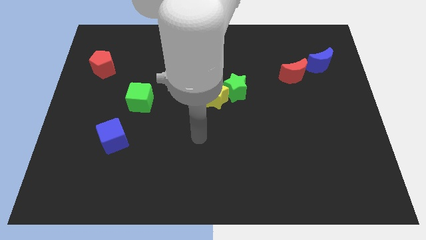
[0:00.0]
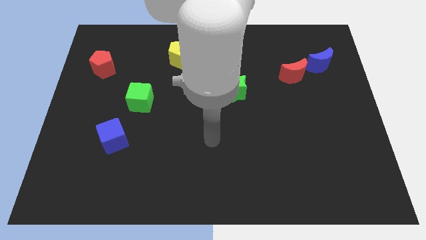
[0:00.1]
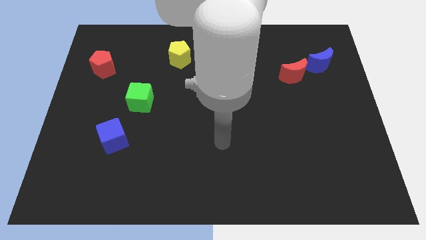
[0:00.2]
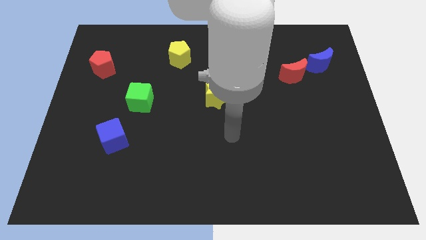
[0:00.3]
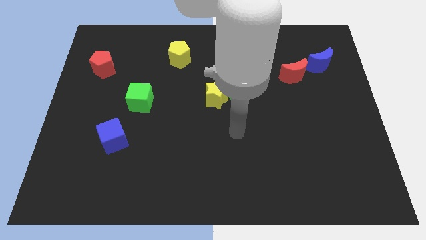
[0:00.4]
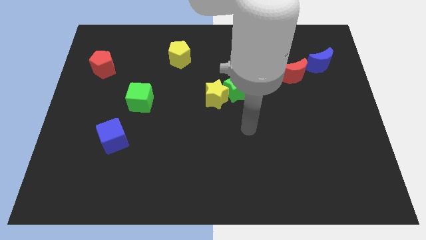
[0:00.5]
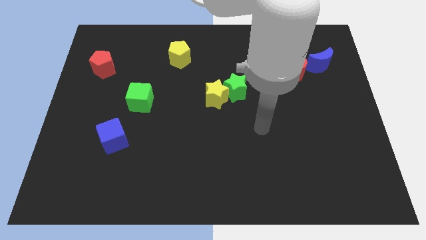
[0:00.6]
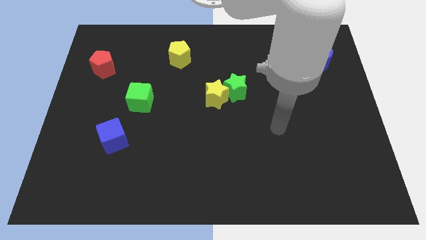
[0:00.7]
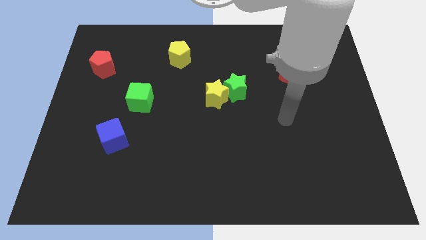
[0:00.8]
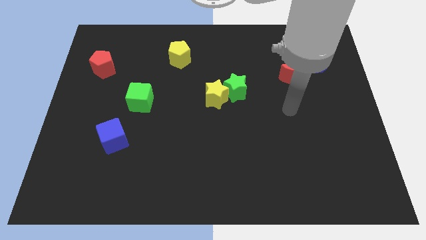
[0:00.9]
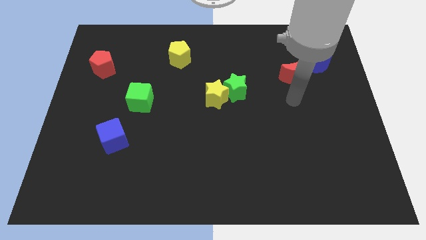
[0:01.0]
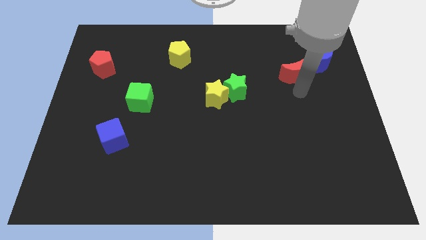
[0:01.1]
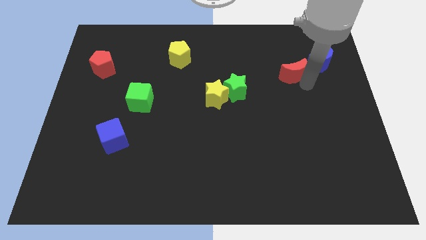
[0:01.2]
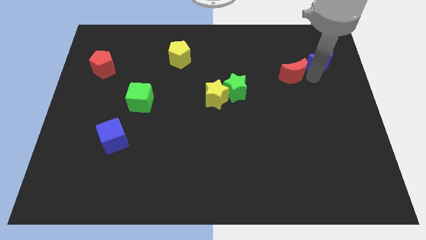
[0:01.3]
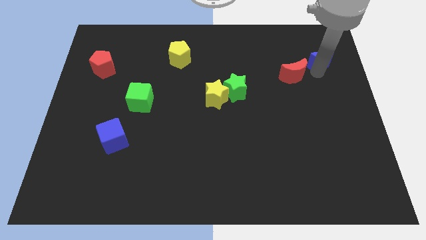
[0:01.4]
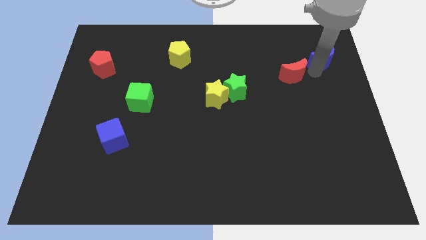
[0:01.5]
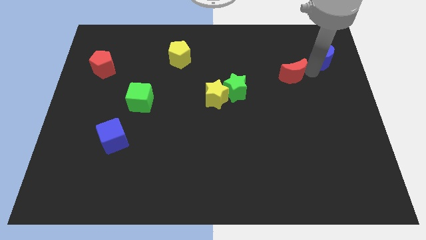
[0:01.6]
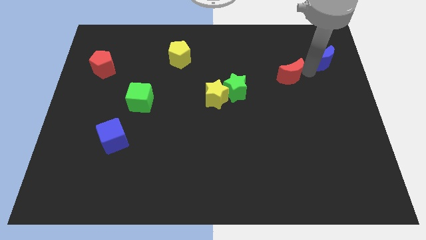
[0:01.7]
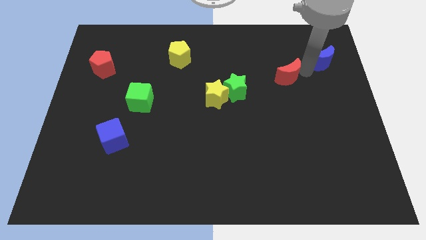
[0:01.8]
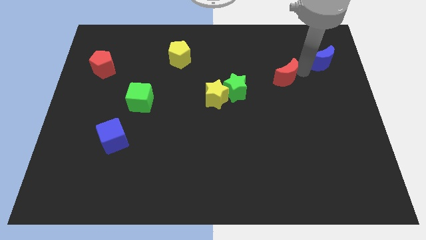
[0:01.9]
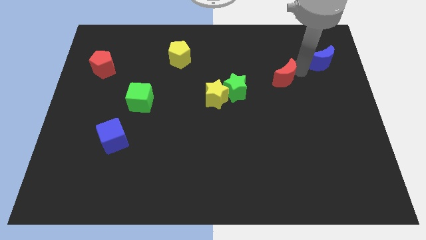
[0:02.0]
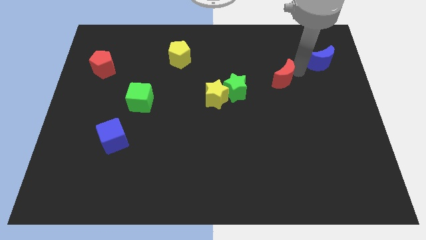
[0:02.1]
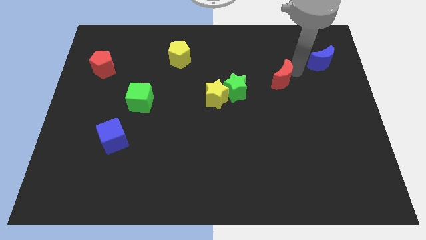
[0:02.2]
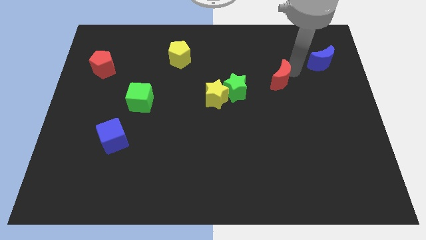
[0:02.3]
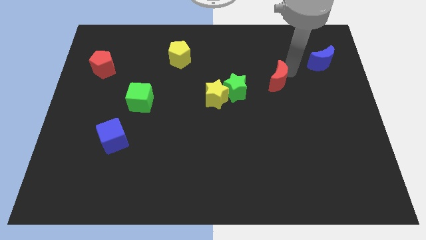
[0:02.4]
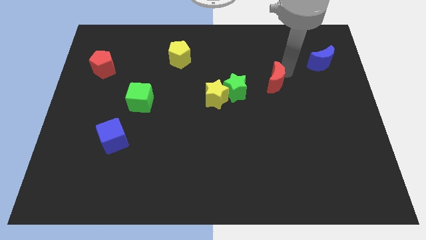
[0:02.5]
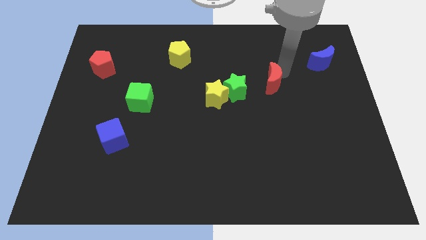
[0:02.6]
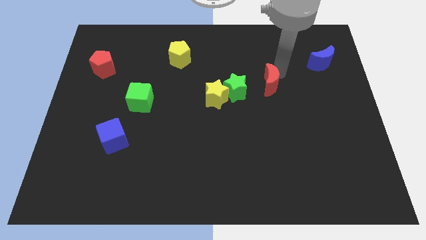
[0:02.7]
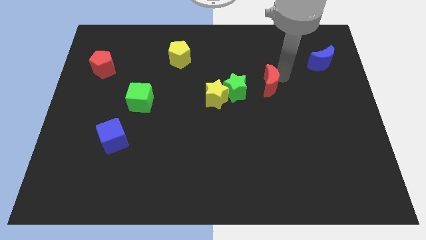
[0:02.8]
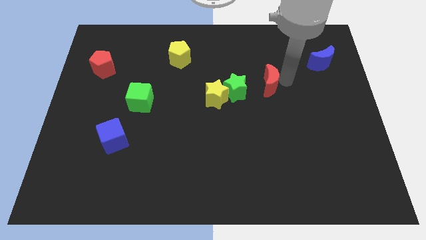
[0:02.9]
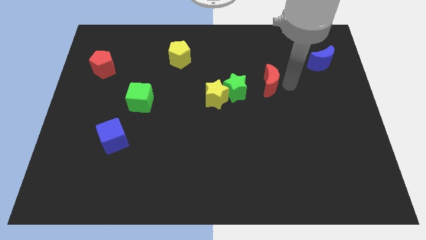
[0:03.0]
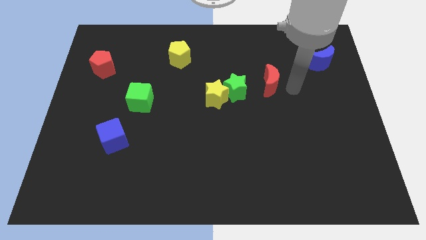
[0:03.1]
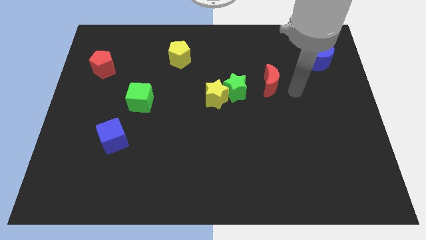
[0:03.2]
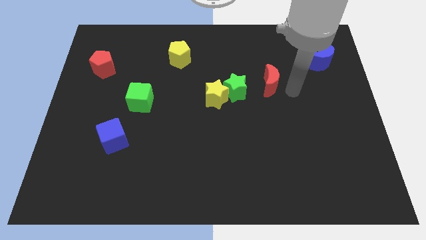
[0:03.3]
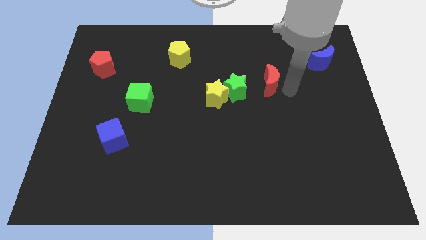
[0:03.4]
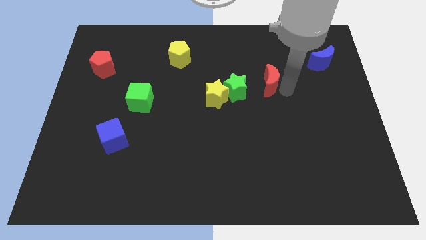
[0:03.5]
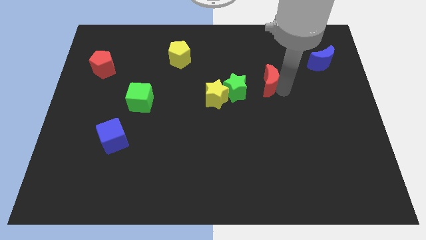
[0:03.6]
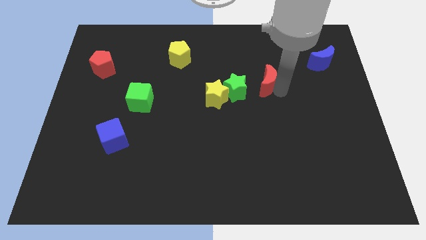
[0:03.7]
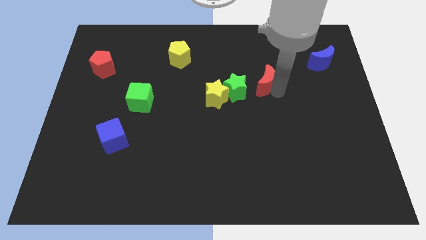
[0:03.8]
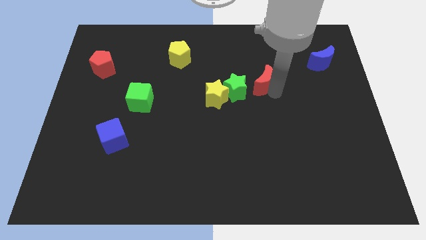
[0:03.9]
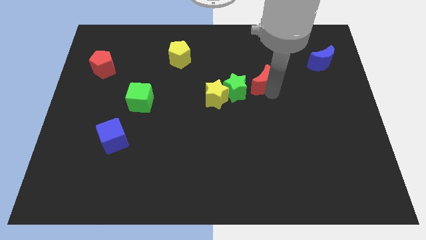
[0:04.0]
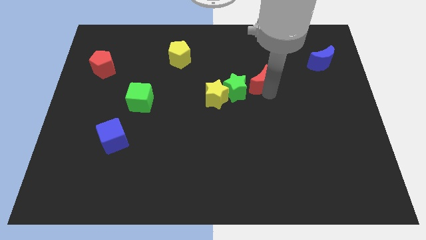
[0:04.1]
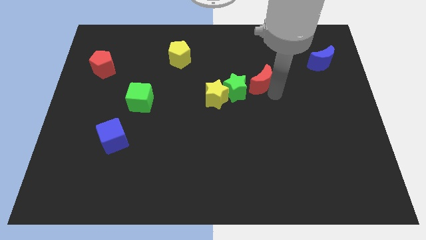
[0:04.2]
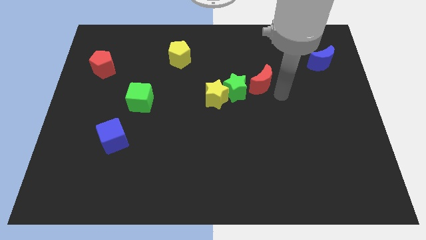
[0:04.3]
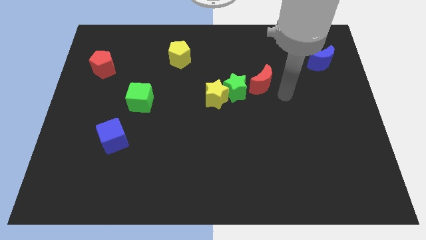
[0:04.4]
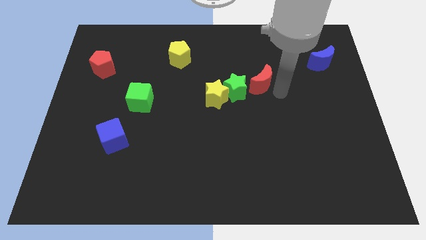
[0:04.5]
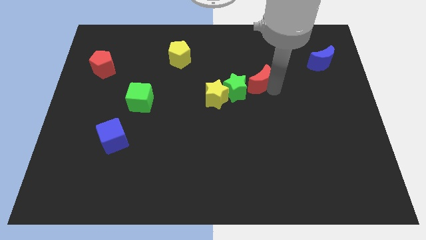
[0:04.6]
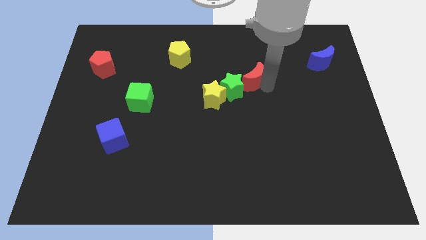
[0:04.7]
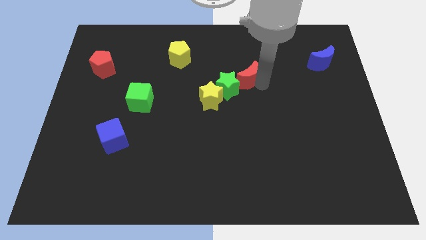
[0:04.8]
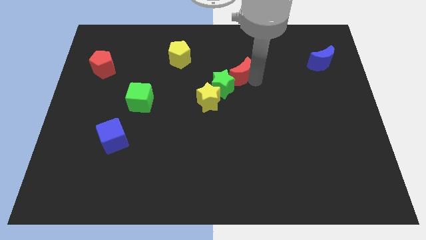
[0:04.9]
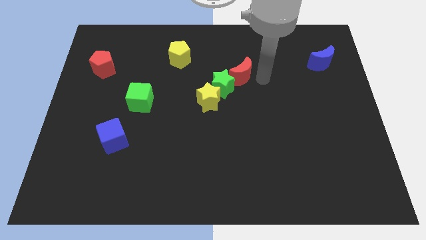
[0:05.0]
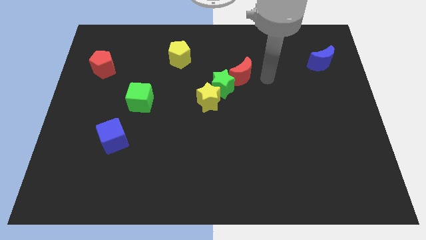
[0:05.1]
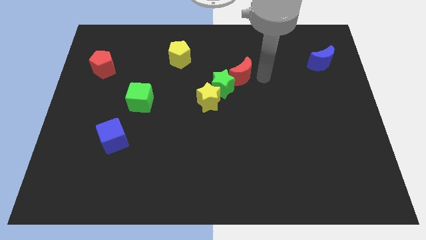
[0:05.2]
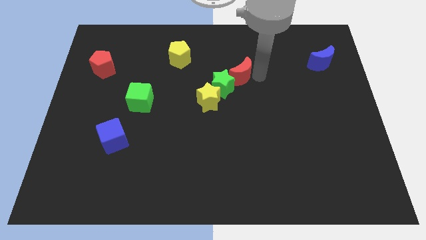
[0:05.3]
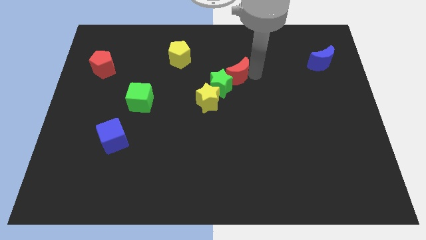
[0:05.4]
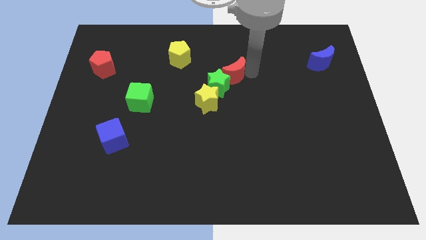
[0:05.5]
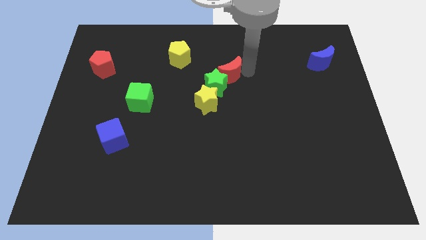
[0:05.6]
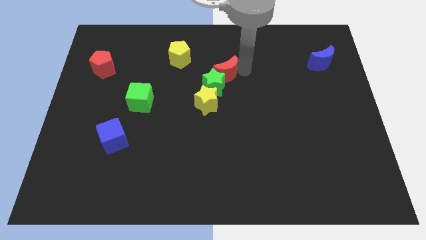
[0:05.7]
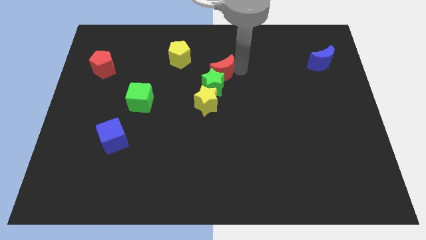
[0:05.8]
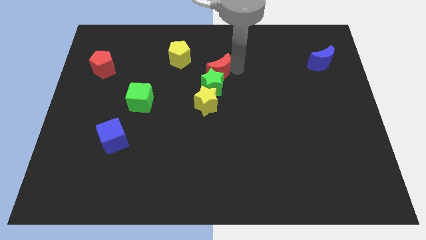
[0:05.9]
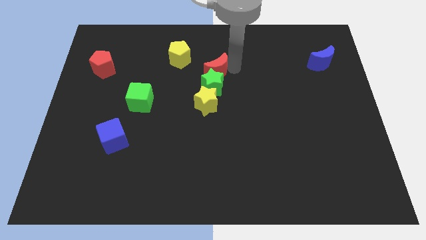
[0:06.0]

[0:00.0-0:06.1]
move the red moon diagonally up and to the left of the green star
